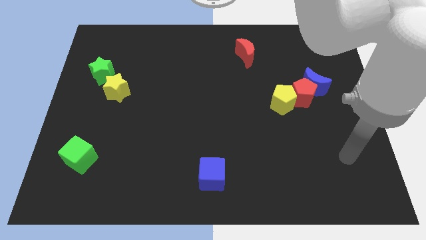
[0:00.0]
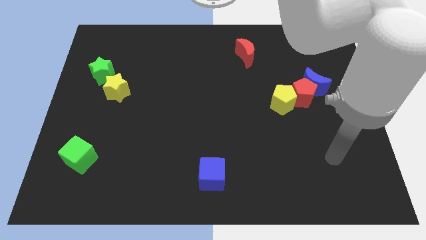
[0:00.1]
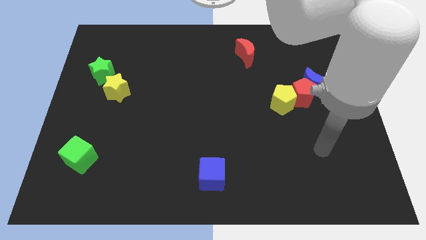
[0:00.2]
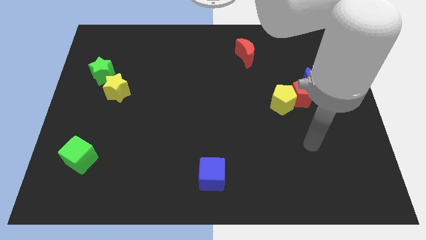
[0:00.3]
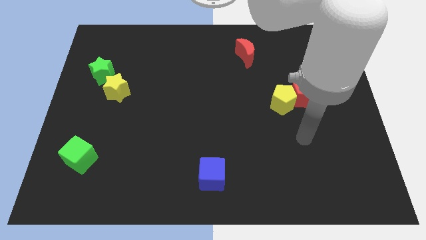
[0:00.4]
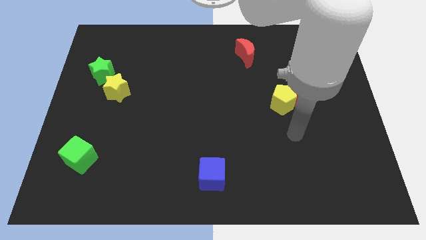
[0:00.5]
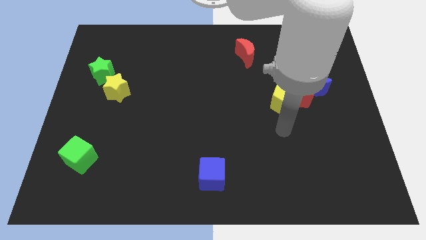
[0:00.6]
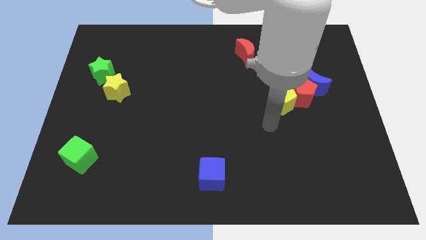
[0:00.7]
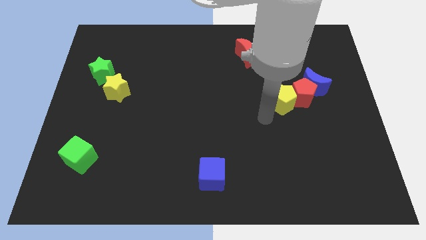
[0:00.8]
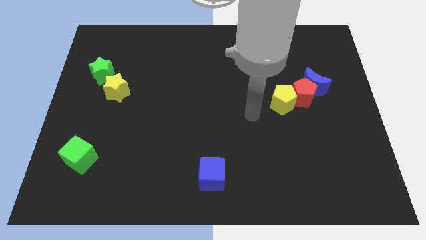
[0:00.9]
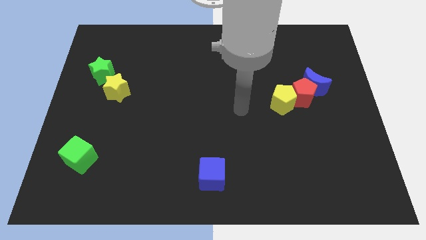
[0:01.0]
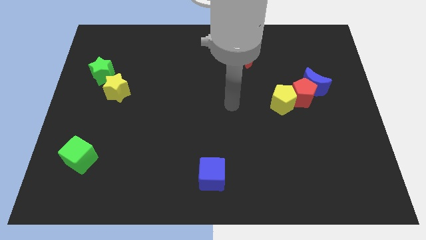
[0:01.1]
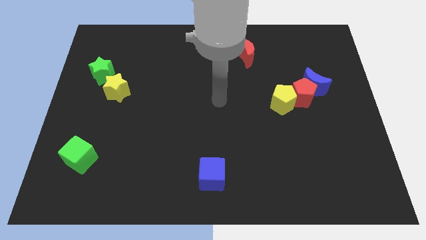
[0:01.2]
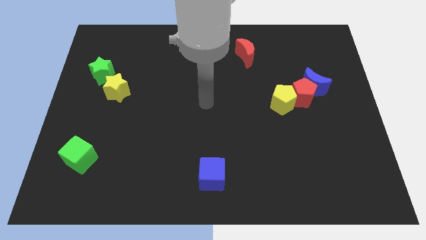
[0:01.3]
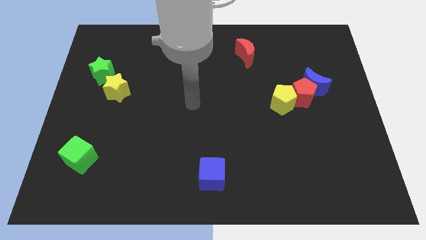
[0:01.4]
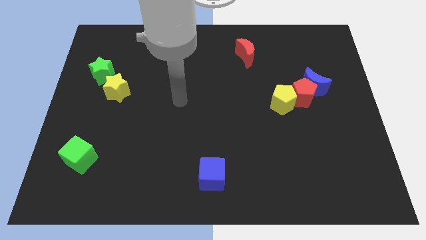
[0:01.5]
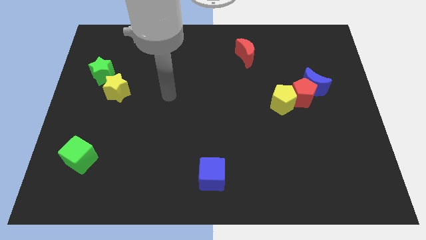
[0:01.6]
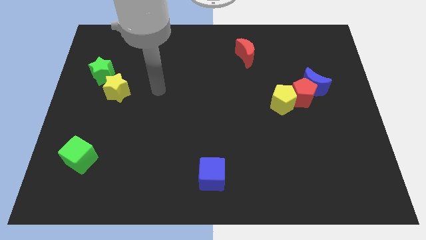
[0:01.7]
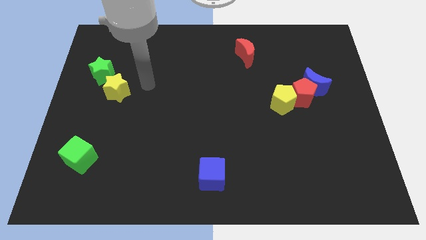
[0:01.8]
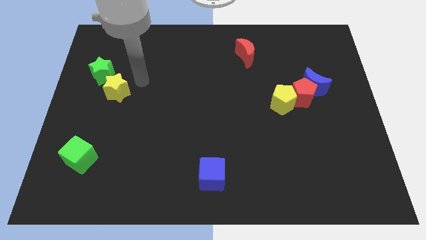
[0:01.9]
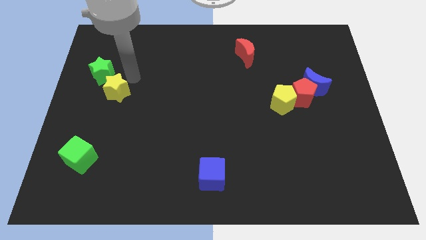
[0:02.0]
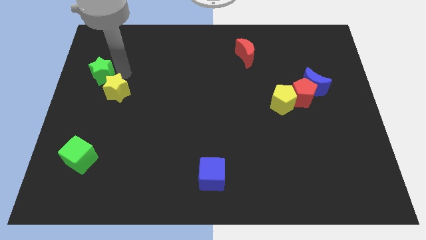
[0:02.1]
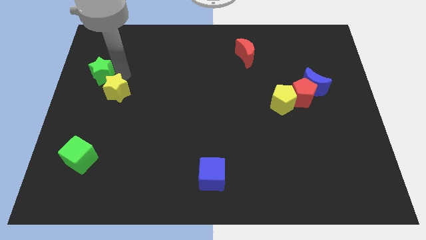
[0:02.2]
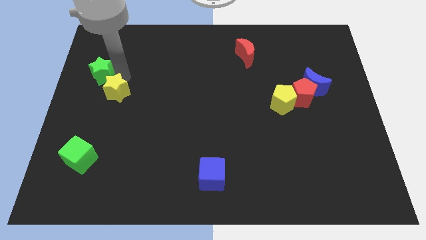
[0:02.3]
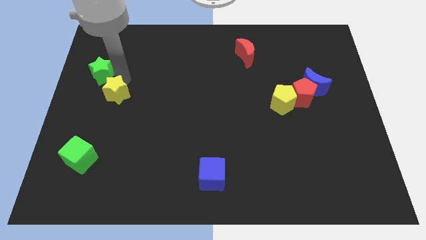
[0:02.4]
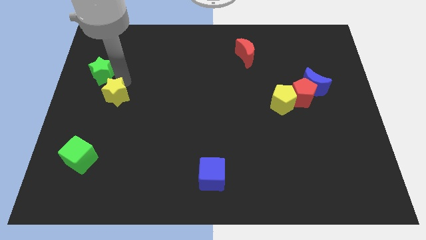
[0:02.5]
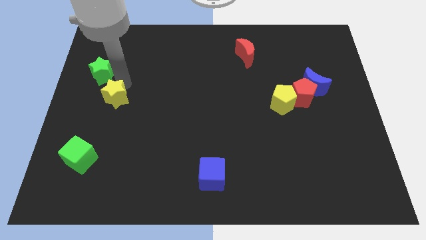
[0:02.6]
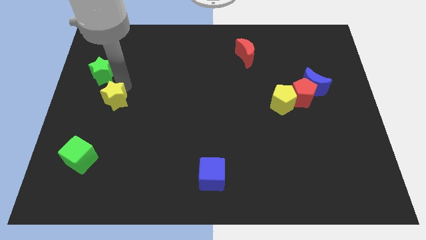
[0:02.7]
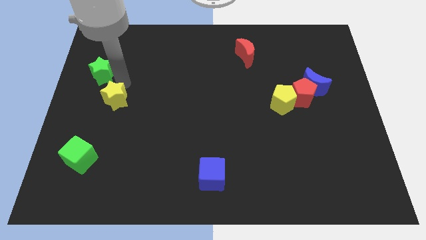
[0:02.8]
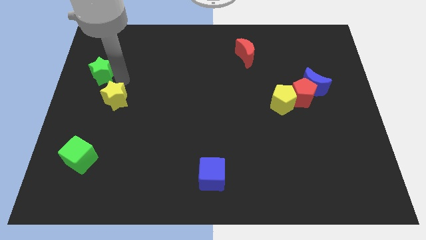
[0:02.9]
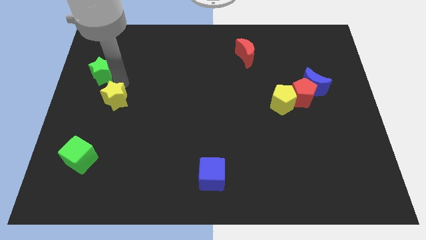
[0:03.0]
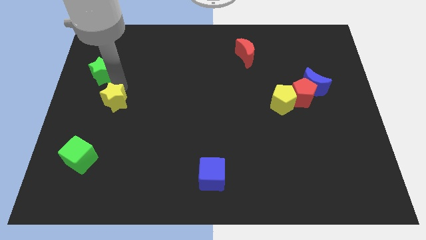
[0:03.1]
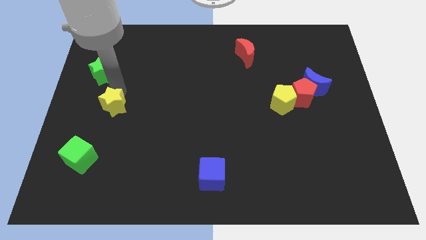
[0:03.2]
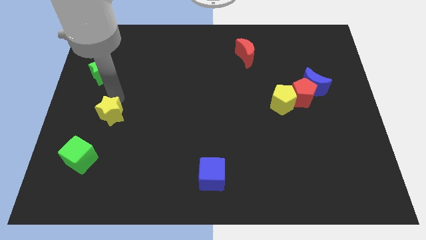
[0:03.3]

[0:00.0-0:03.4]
push the yellow star down slightly

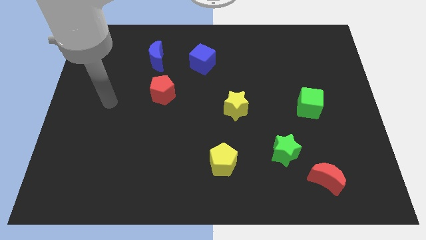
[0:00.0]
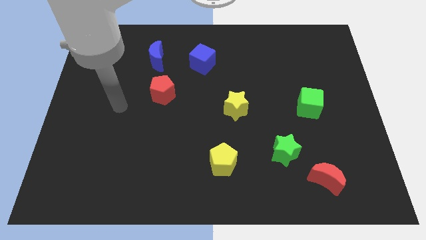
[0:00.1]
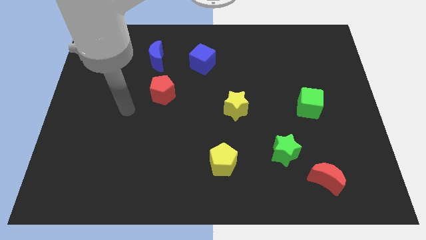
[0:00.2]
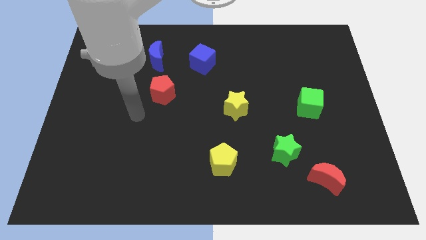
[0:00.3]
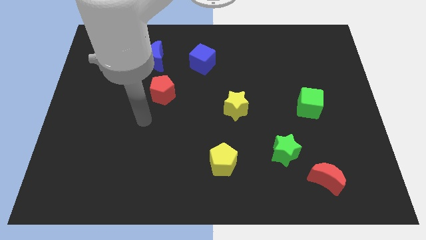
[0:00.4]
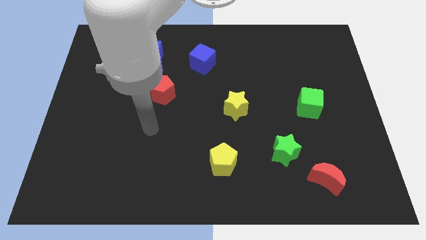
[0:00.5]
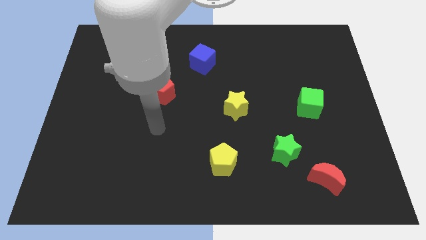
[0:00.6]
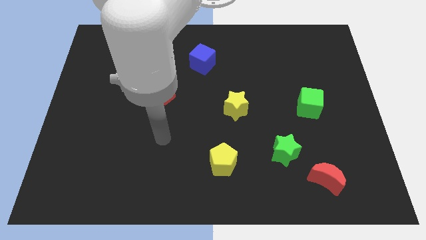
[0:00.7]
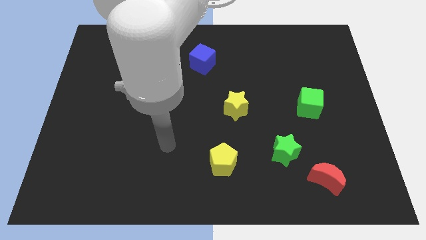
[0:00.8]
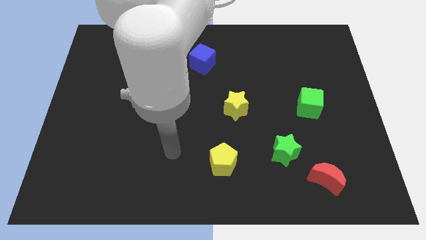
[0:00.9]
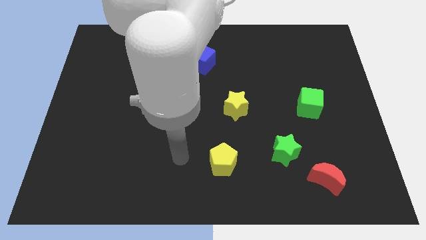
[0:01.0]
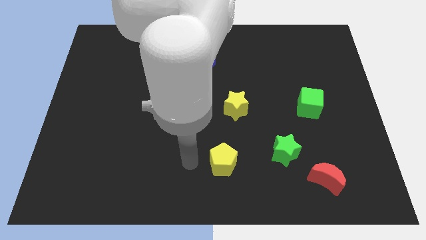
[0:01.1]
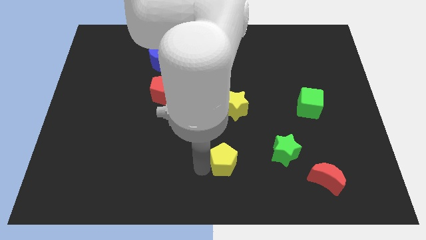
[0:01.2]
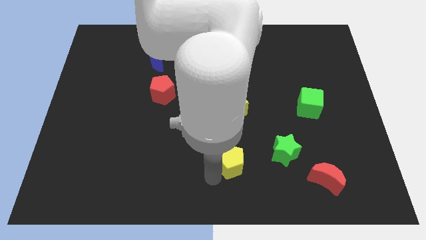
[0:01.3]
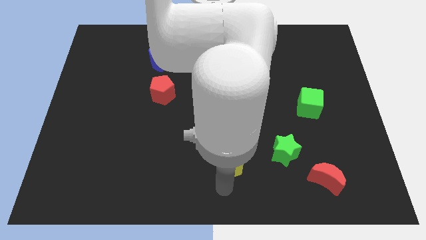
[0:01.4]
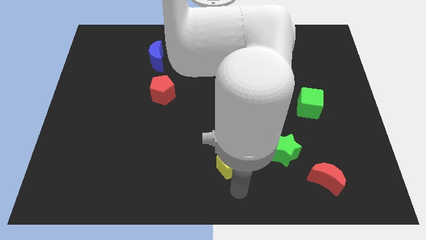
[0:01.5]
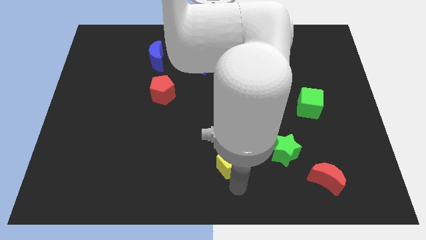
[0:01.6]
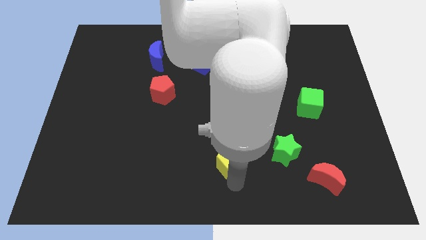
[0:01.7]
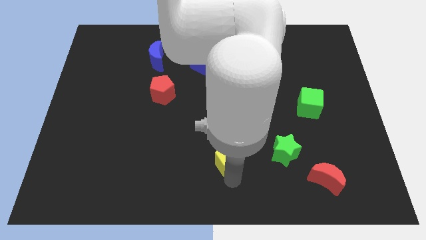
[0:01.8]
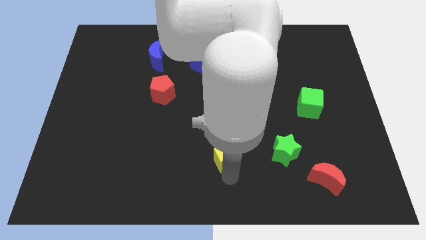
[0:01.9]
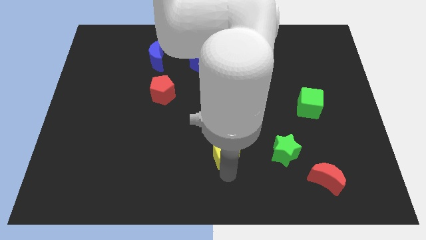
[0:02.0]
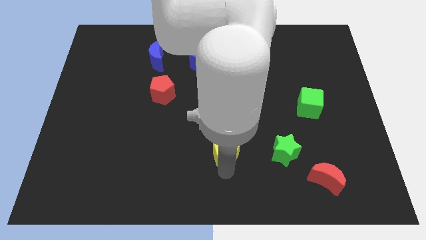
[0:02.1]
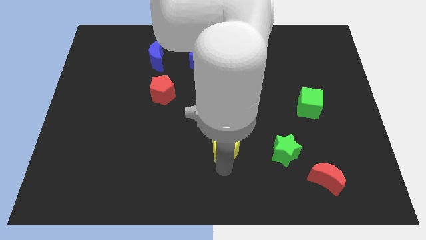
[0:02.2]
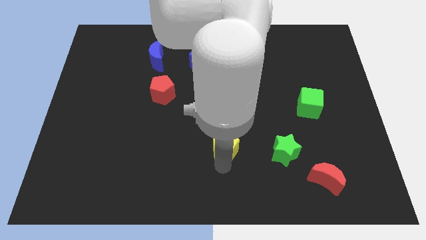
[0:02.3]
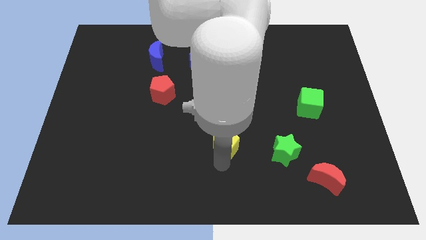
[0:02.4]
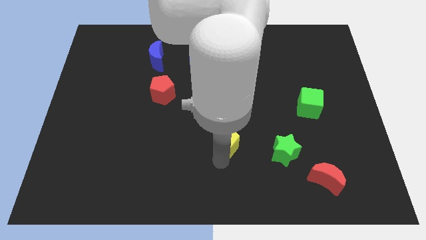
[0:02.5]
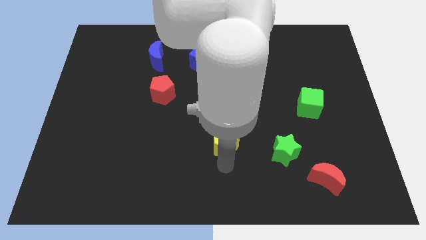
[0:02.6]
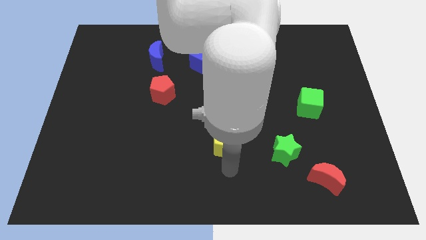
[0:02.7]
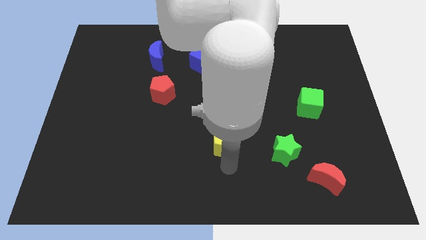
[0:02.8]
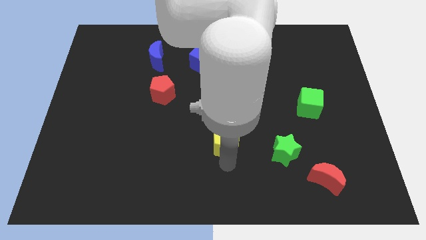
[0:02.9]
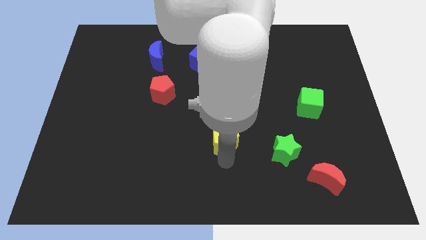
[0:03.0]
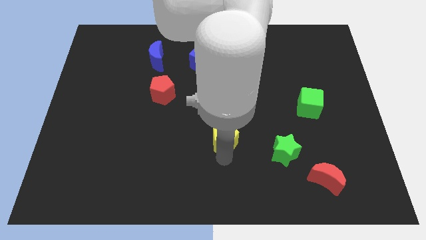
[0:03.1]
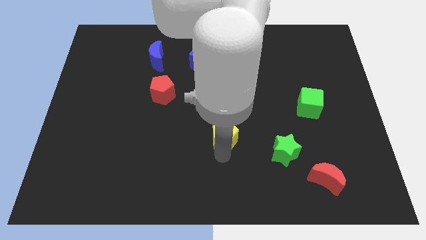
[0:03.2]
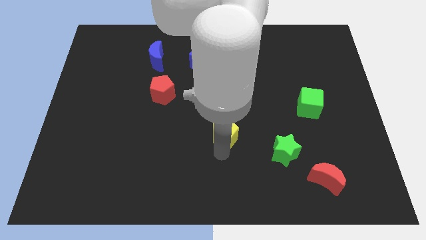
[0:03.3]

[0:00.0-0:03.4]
slightly slide the yellow pentagon up

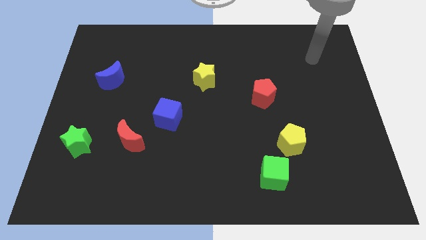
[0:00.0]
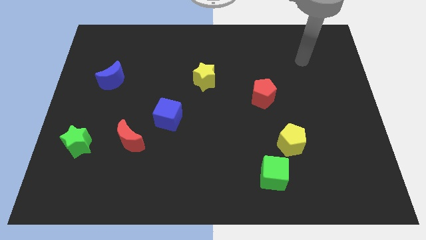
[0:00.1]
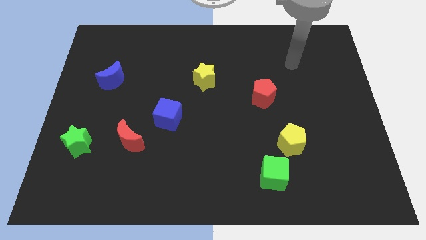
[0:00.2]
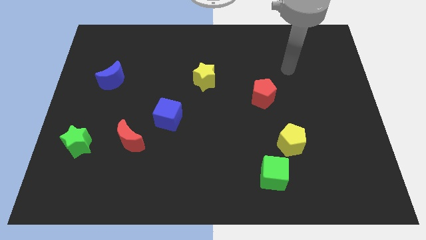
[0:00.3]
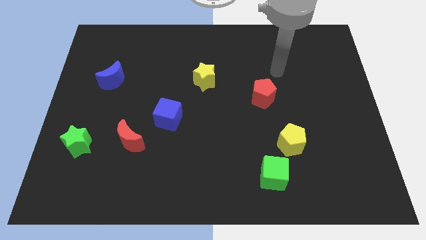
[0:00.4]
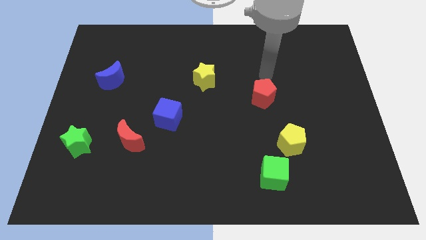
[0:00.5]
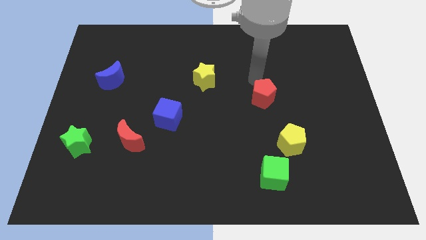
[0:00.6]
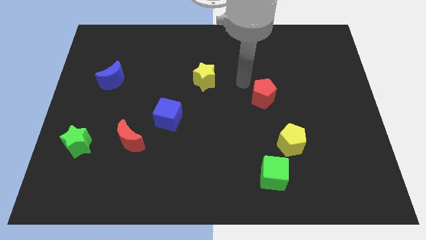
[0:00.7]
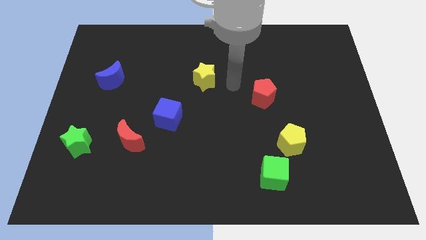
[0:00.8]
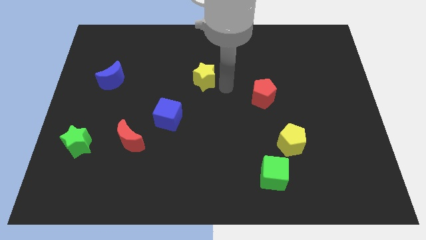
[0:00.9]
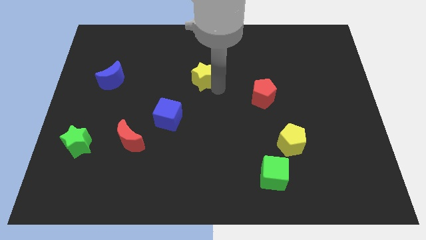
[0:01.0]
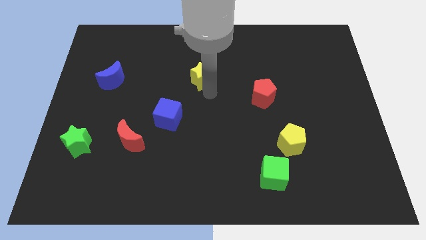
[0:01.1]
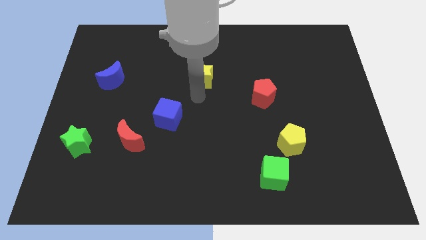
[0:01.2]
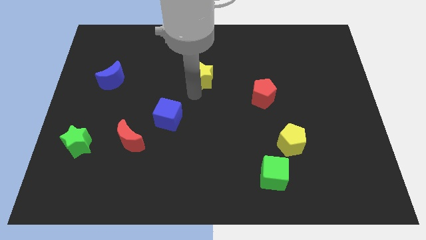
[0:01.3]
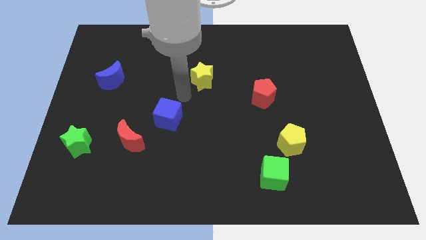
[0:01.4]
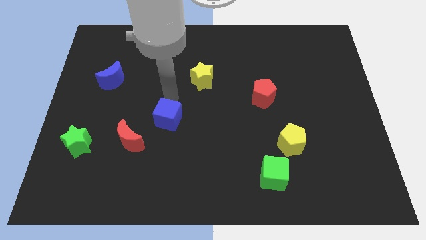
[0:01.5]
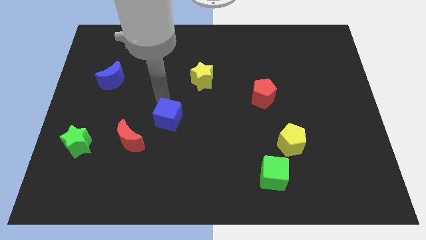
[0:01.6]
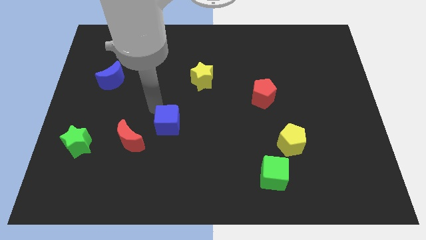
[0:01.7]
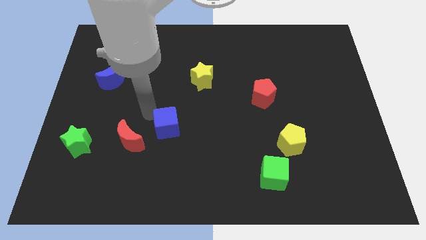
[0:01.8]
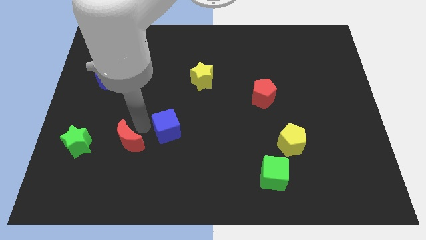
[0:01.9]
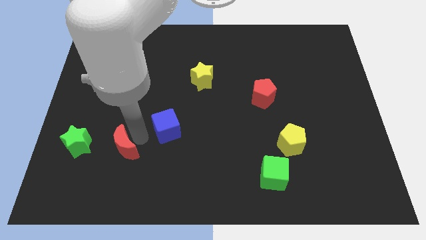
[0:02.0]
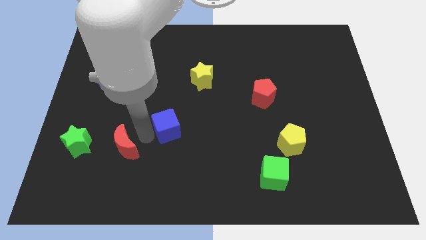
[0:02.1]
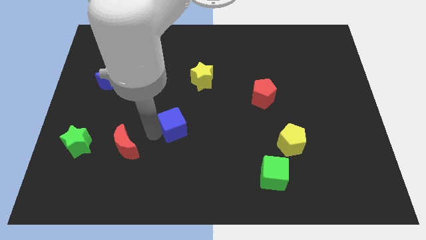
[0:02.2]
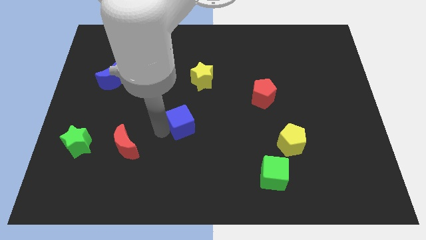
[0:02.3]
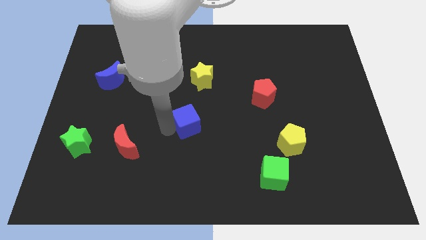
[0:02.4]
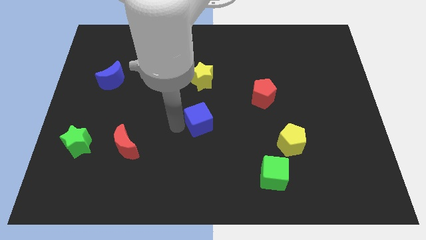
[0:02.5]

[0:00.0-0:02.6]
move the blue cube a bit right
